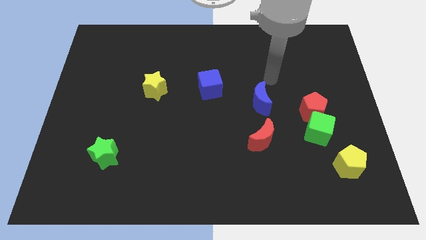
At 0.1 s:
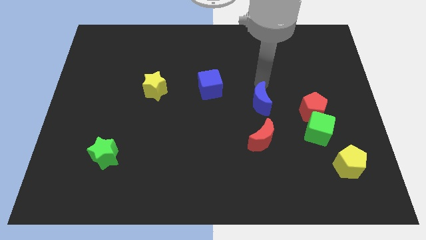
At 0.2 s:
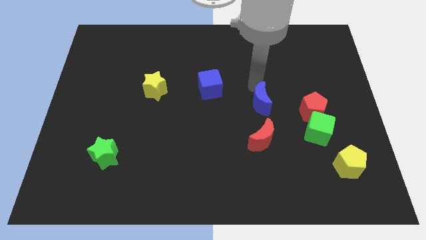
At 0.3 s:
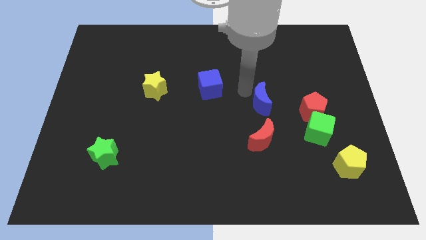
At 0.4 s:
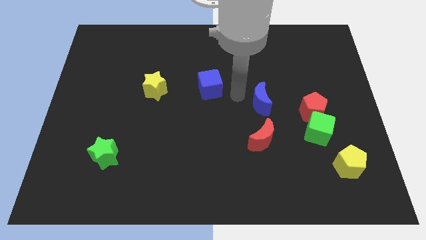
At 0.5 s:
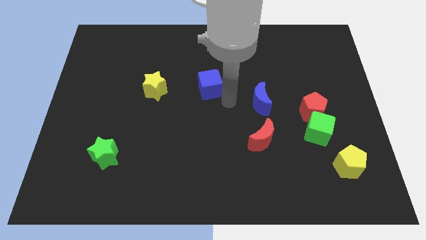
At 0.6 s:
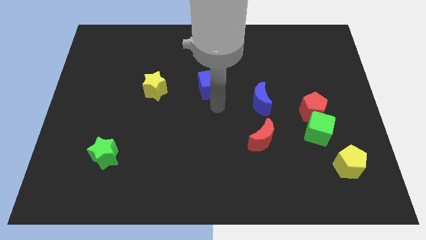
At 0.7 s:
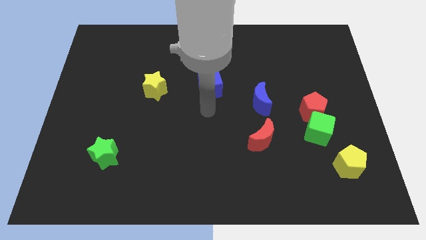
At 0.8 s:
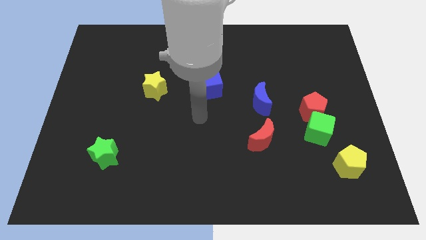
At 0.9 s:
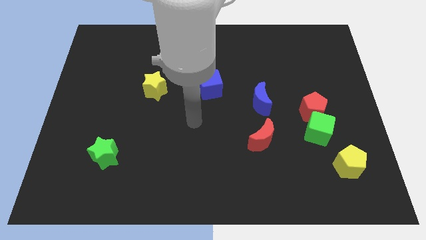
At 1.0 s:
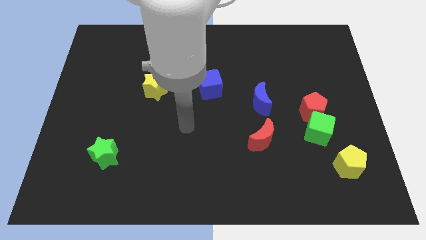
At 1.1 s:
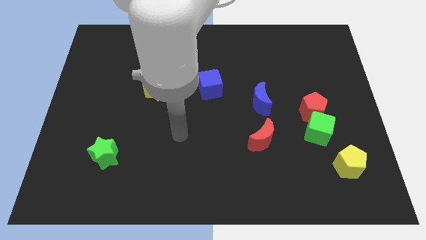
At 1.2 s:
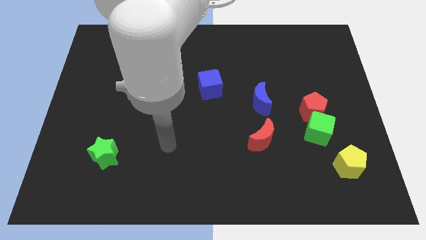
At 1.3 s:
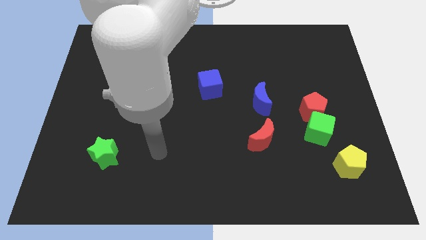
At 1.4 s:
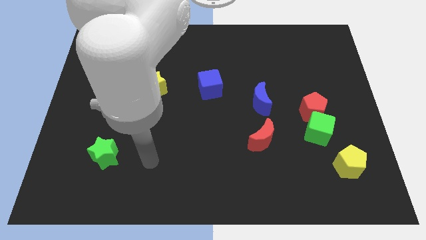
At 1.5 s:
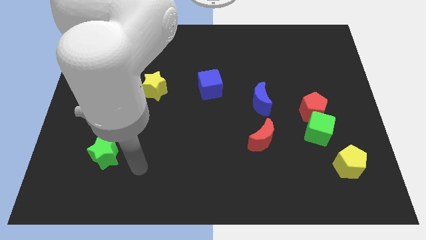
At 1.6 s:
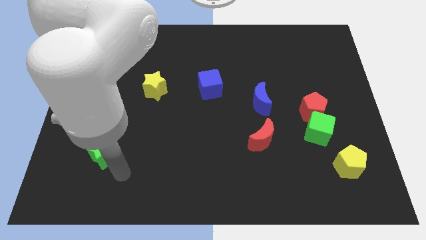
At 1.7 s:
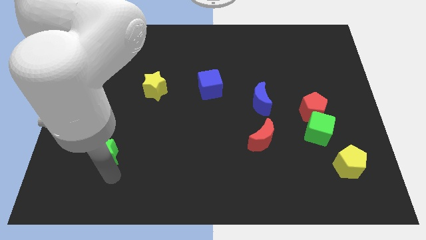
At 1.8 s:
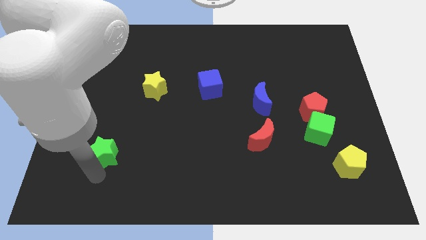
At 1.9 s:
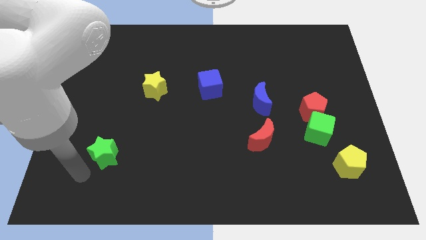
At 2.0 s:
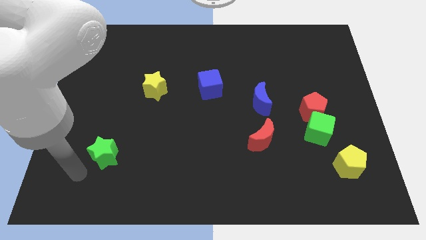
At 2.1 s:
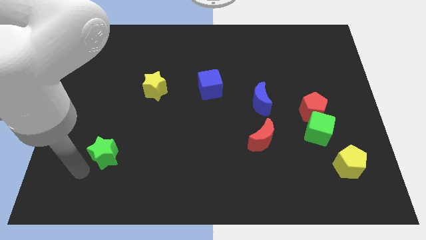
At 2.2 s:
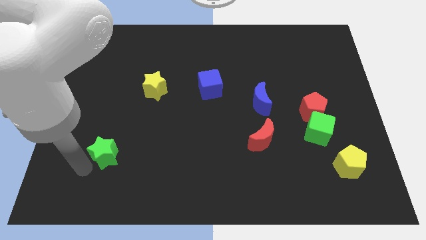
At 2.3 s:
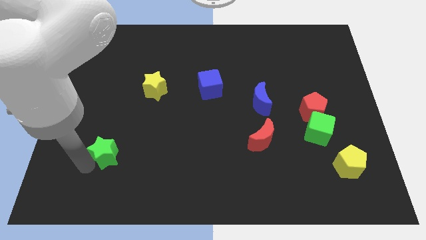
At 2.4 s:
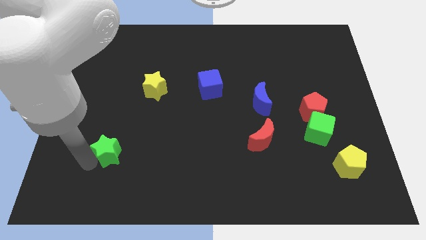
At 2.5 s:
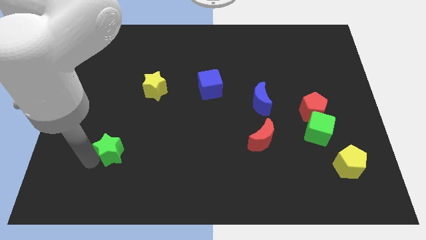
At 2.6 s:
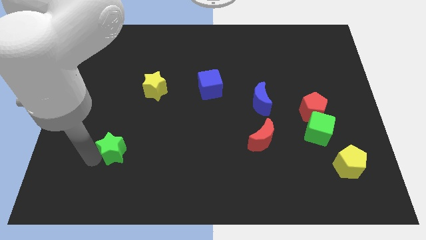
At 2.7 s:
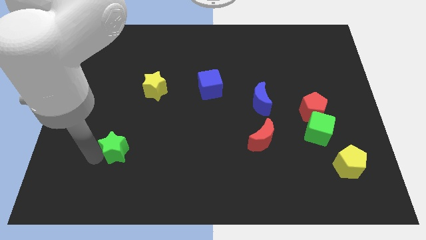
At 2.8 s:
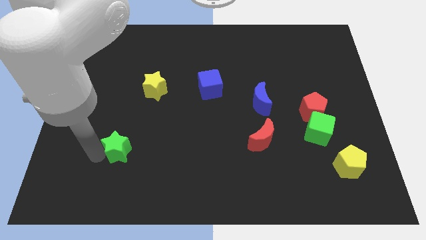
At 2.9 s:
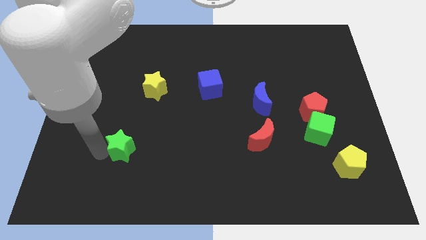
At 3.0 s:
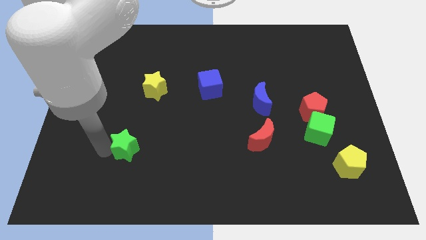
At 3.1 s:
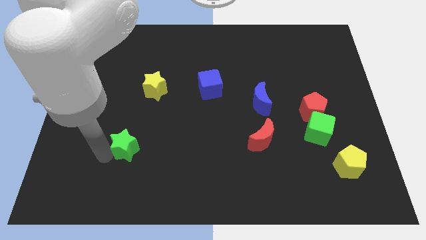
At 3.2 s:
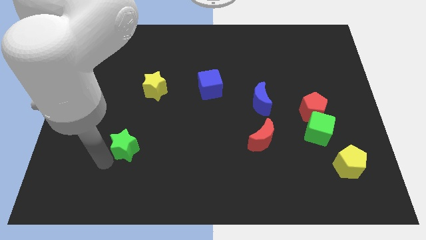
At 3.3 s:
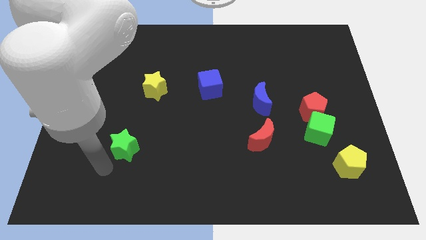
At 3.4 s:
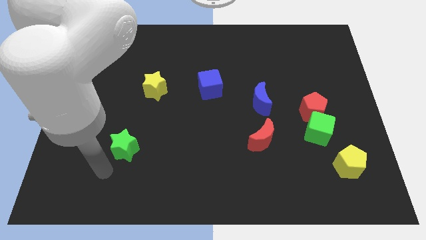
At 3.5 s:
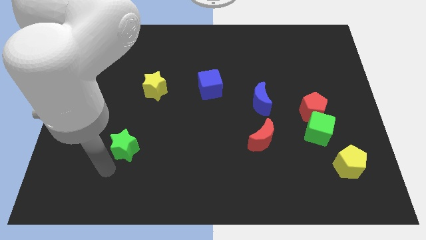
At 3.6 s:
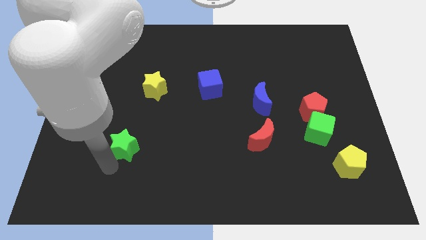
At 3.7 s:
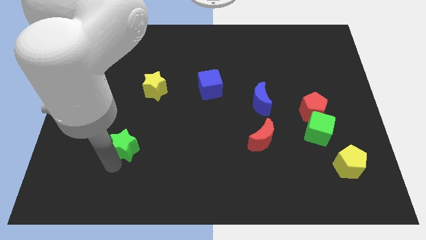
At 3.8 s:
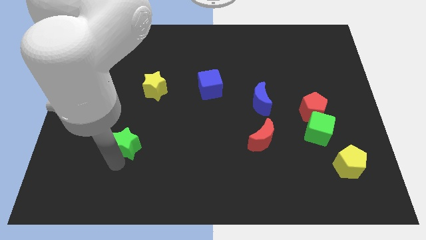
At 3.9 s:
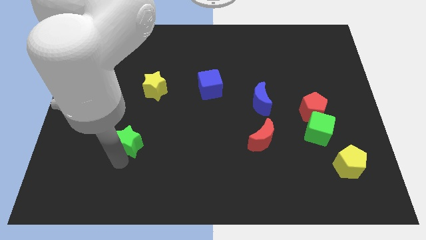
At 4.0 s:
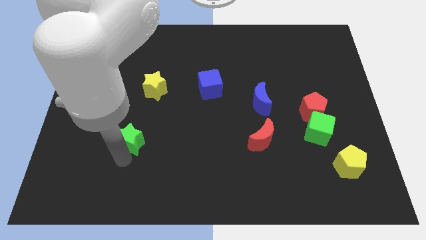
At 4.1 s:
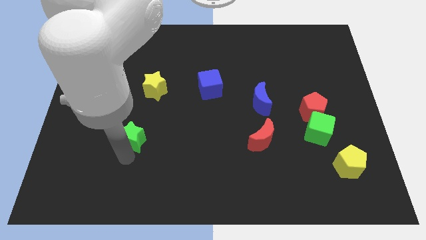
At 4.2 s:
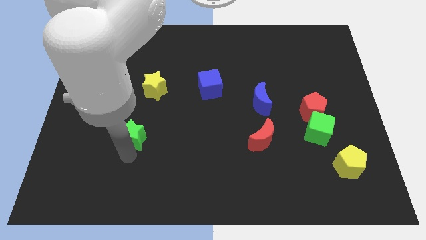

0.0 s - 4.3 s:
slightly push the green star diagonally up and to the right

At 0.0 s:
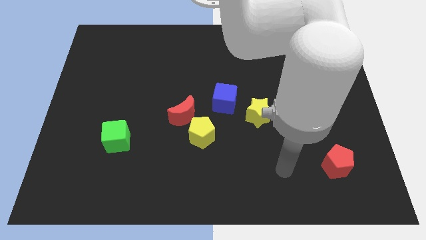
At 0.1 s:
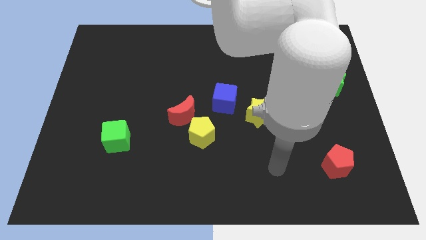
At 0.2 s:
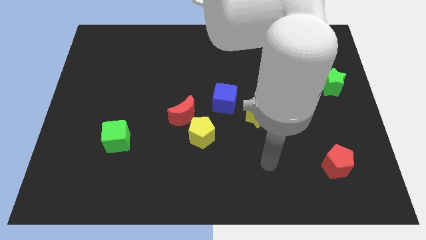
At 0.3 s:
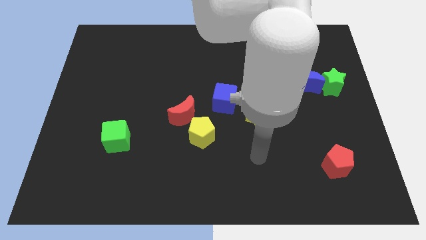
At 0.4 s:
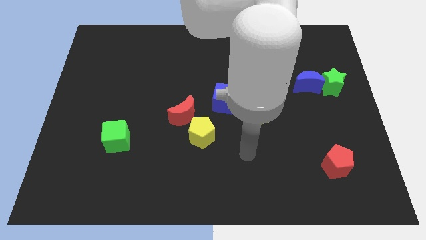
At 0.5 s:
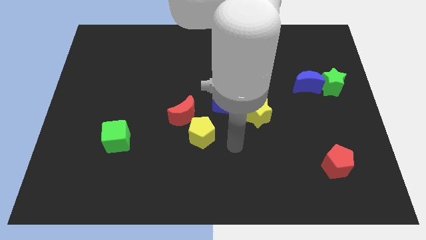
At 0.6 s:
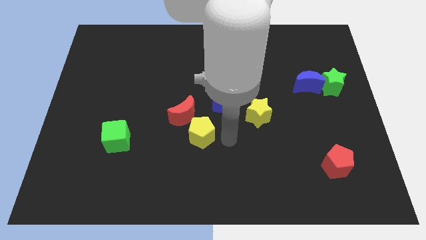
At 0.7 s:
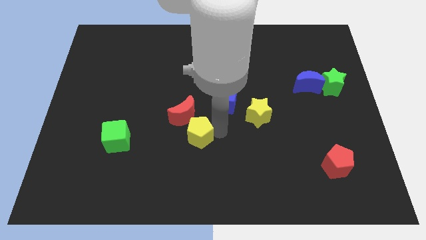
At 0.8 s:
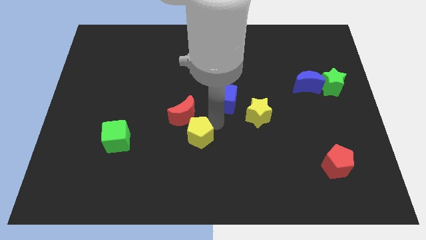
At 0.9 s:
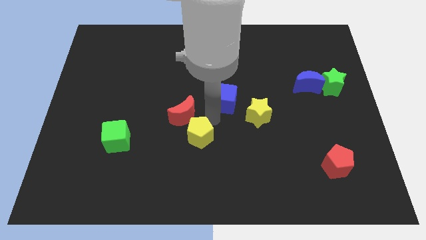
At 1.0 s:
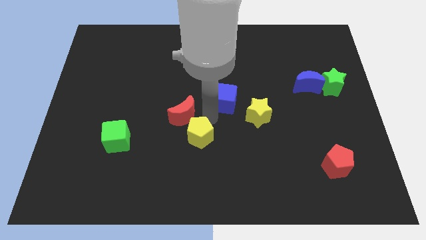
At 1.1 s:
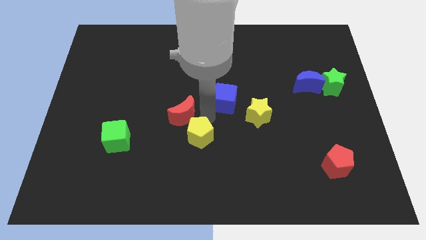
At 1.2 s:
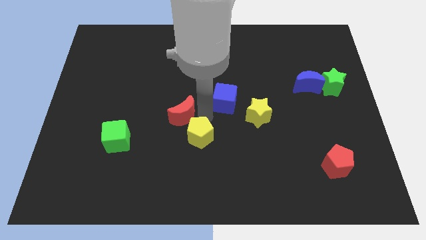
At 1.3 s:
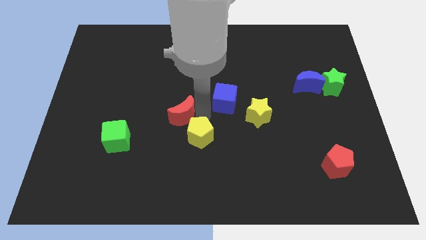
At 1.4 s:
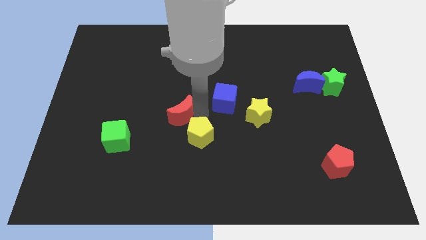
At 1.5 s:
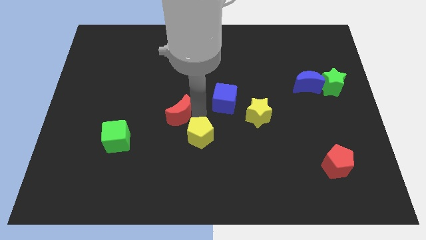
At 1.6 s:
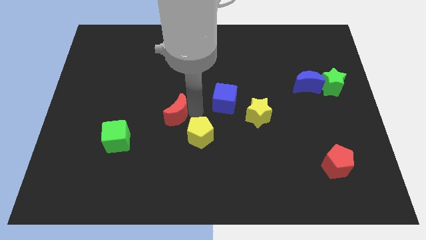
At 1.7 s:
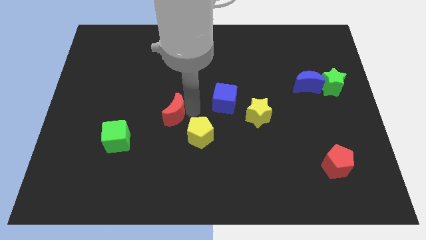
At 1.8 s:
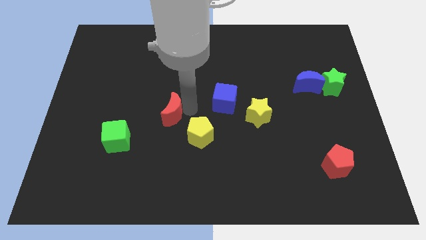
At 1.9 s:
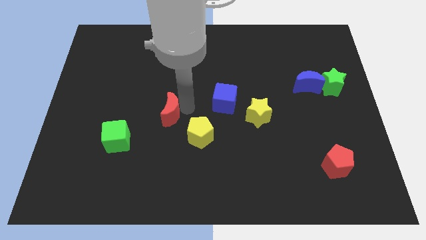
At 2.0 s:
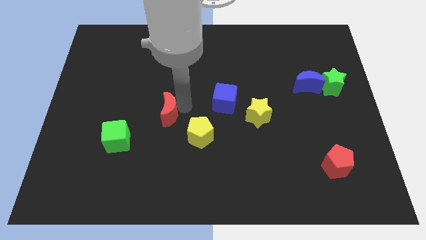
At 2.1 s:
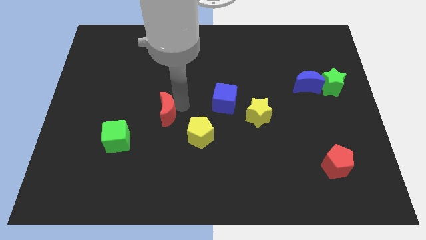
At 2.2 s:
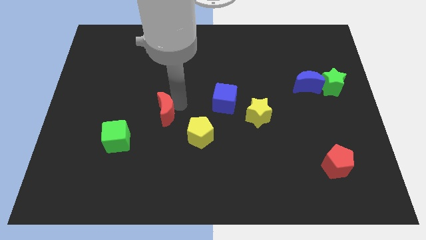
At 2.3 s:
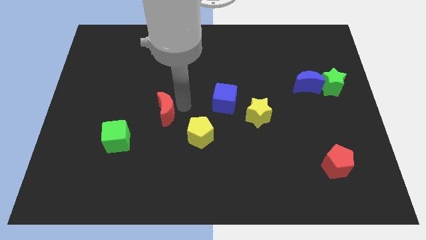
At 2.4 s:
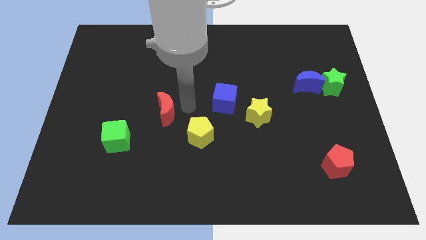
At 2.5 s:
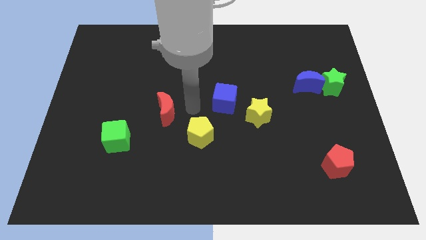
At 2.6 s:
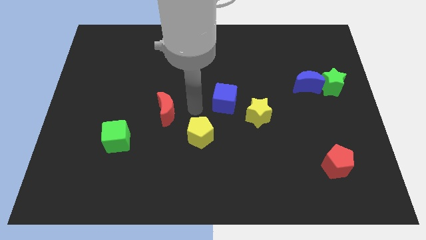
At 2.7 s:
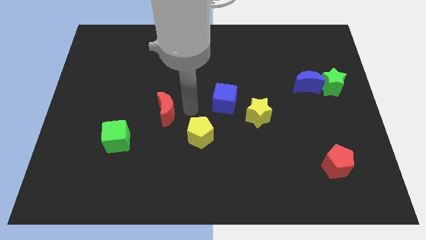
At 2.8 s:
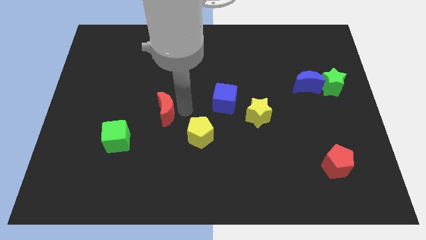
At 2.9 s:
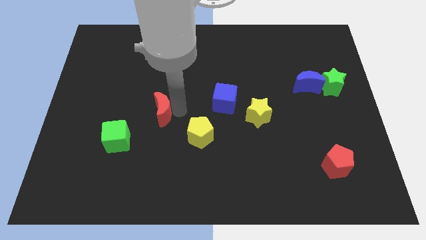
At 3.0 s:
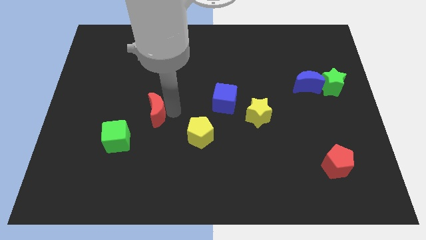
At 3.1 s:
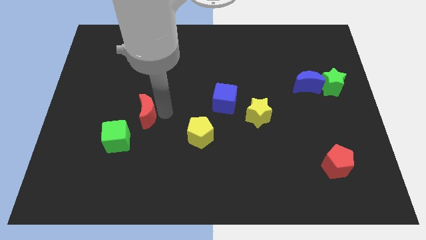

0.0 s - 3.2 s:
slightly move the red moon left
